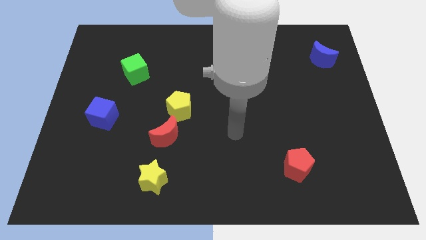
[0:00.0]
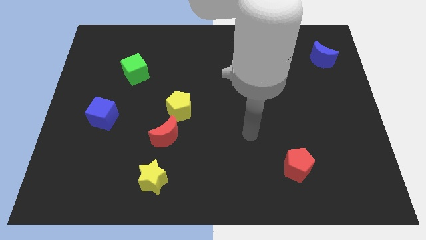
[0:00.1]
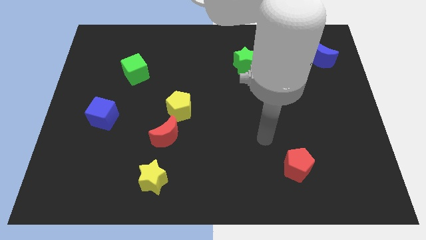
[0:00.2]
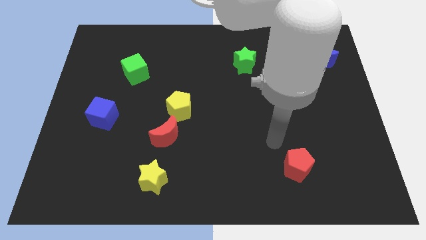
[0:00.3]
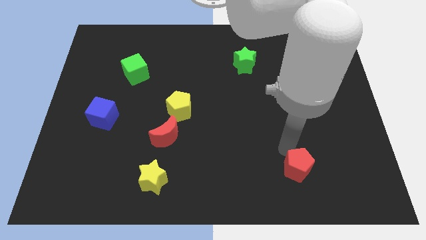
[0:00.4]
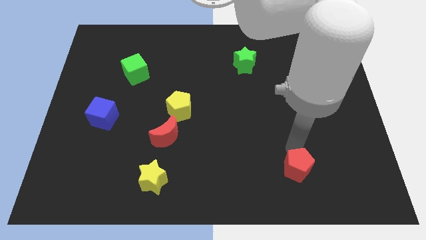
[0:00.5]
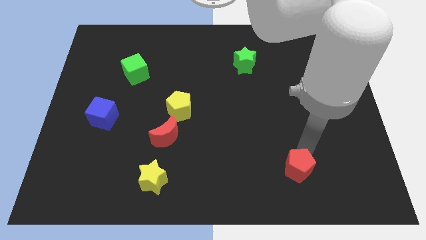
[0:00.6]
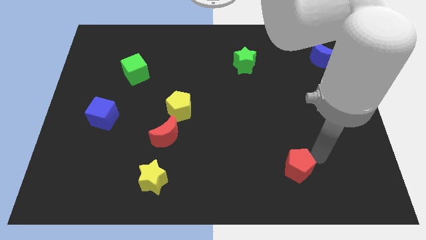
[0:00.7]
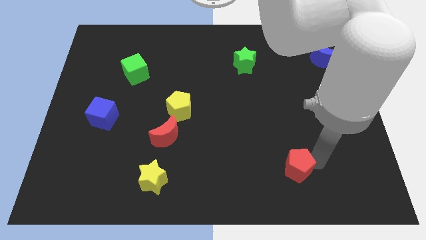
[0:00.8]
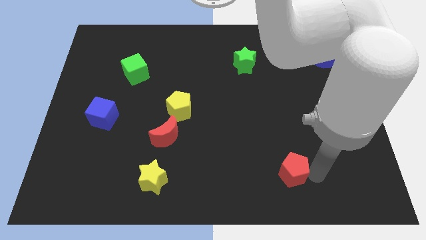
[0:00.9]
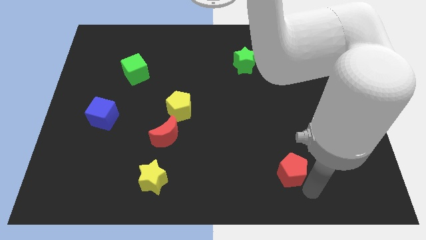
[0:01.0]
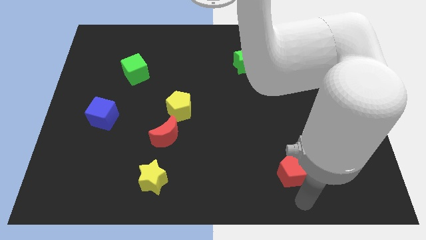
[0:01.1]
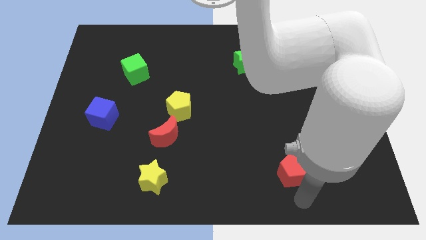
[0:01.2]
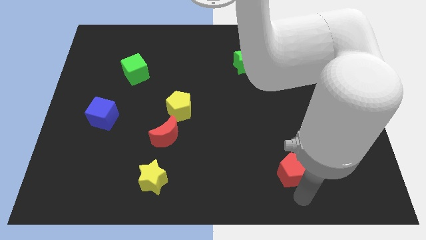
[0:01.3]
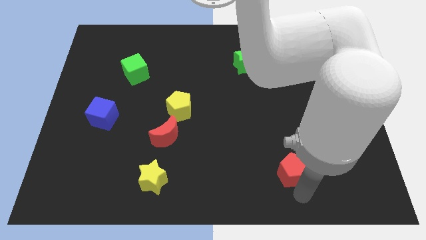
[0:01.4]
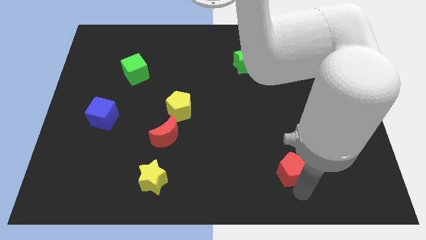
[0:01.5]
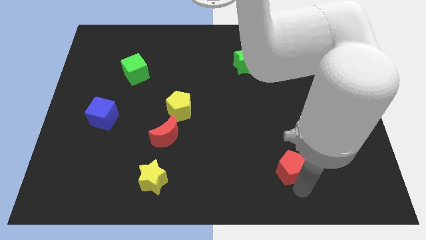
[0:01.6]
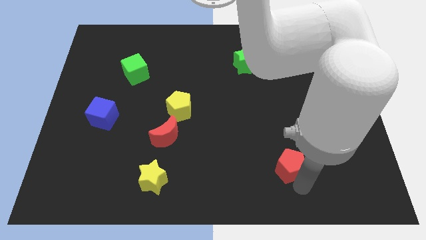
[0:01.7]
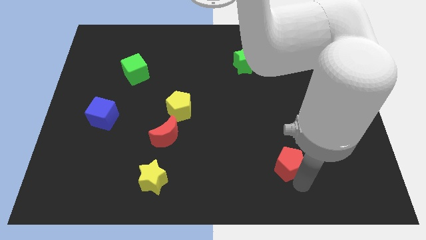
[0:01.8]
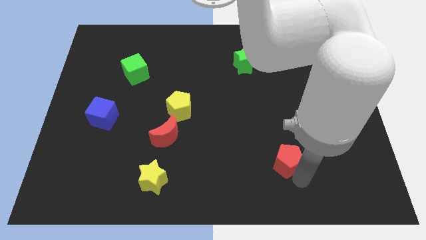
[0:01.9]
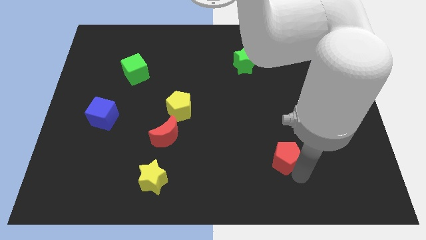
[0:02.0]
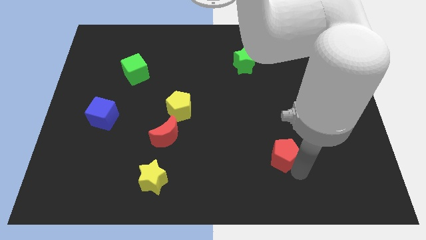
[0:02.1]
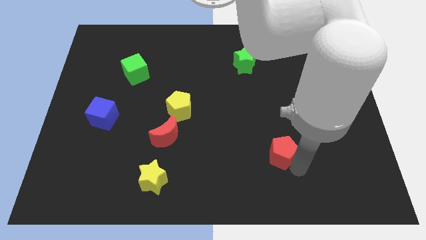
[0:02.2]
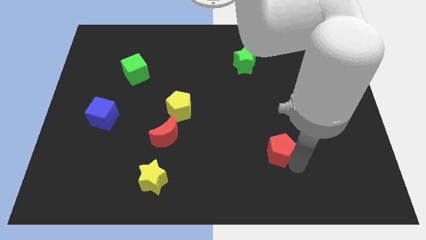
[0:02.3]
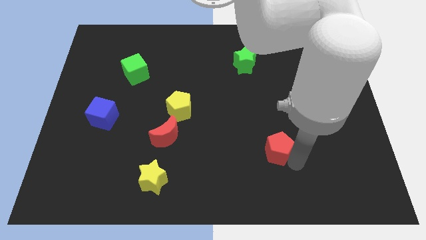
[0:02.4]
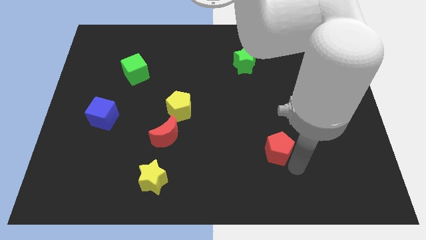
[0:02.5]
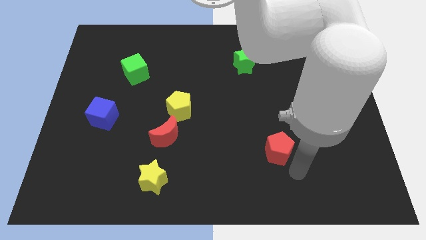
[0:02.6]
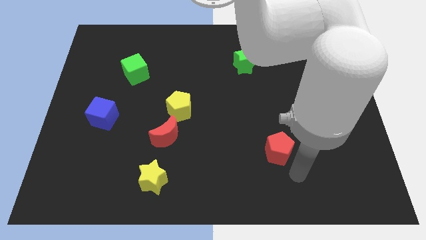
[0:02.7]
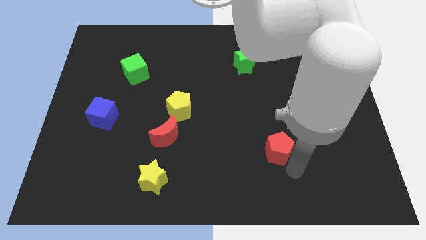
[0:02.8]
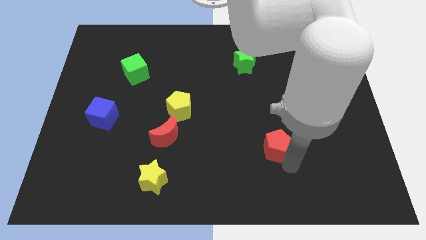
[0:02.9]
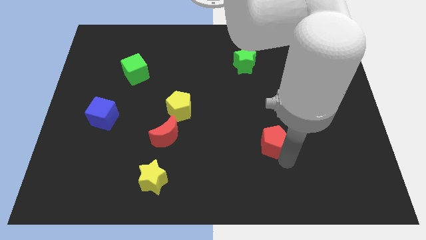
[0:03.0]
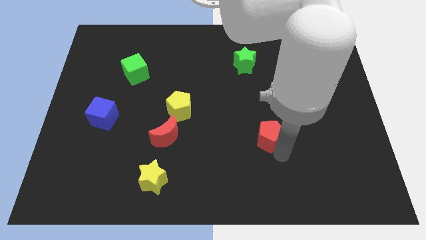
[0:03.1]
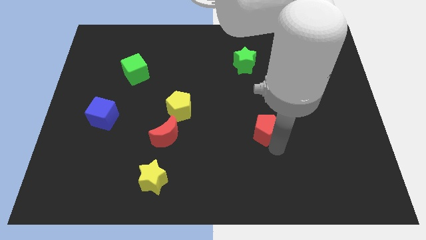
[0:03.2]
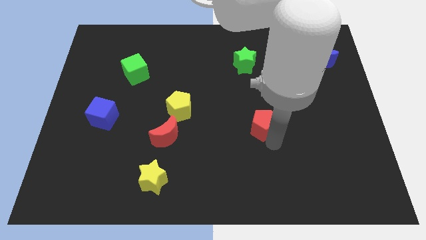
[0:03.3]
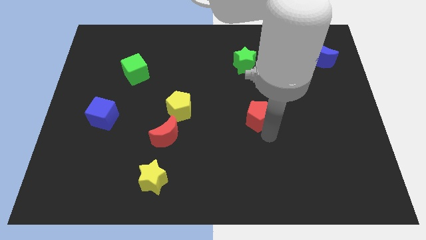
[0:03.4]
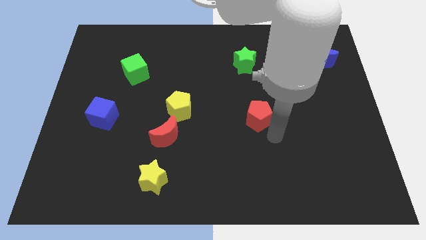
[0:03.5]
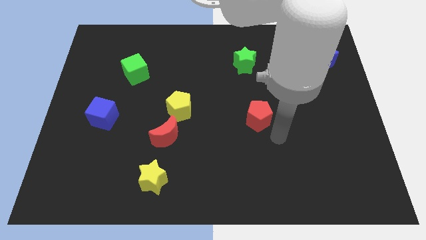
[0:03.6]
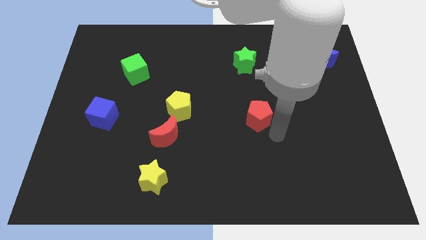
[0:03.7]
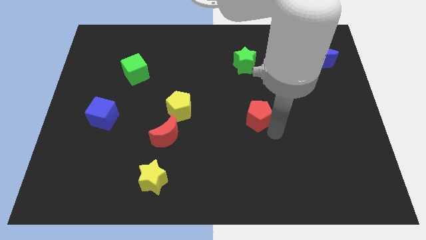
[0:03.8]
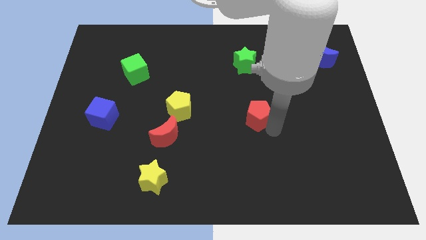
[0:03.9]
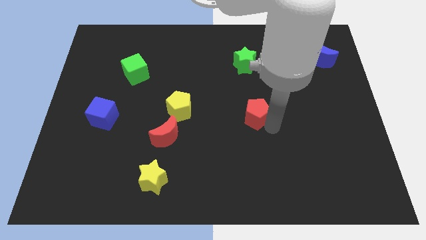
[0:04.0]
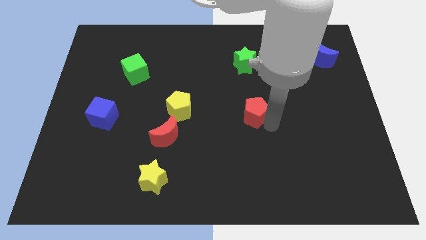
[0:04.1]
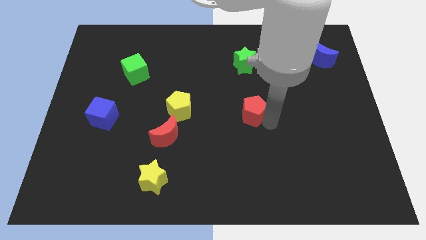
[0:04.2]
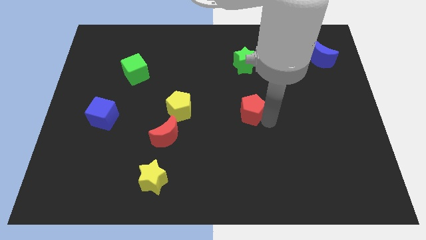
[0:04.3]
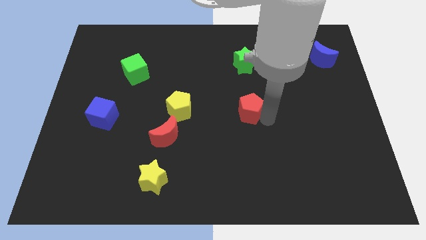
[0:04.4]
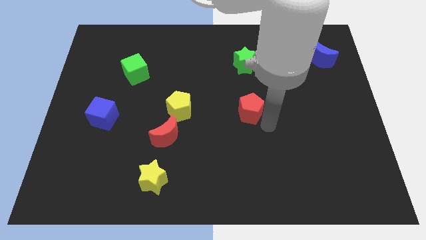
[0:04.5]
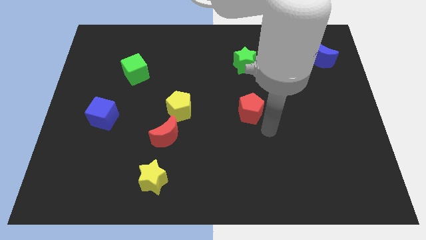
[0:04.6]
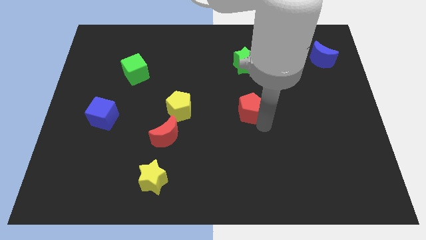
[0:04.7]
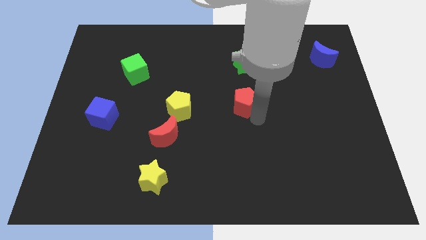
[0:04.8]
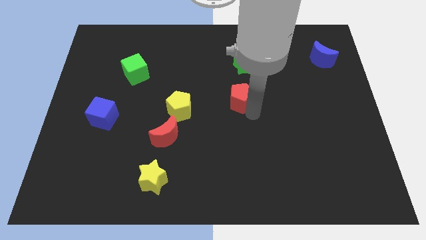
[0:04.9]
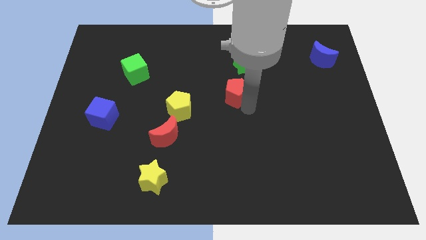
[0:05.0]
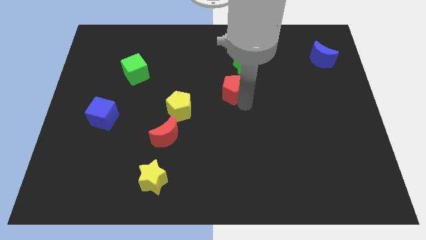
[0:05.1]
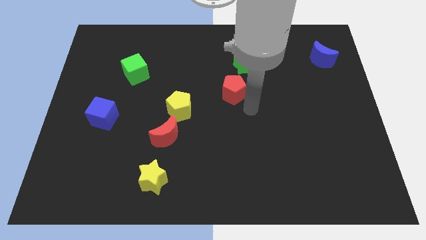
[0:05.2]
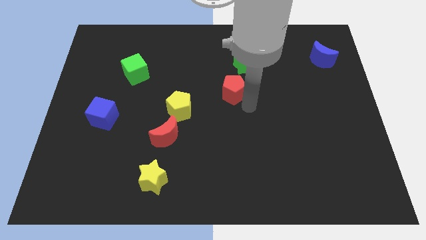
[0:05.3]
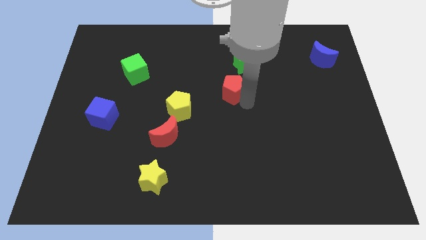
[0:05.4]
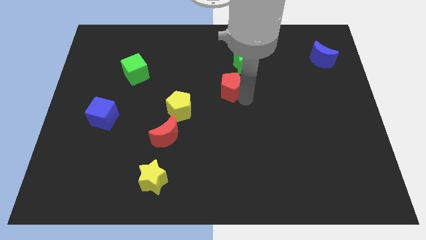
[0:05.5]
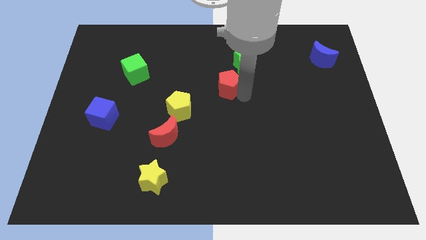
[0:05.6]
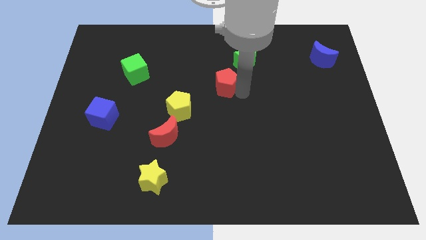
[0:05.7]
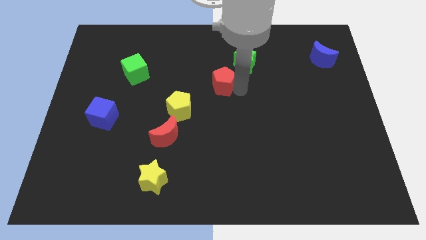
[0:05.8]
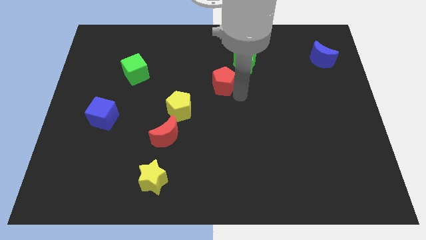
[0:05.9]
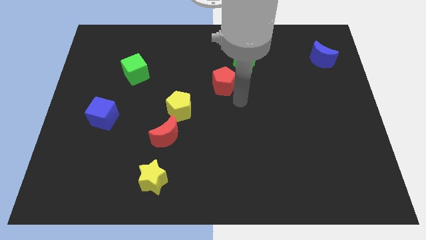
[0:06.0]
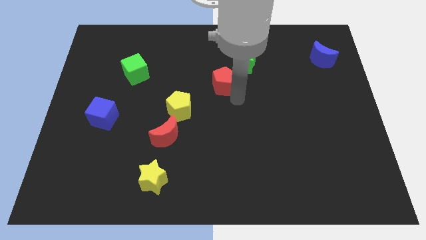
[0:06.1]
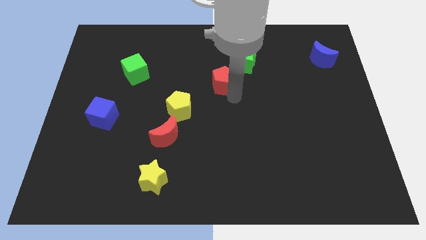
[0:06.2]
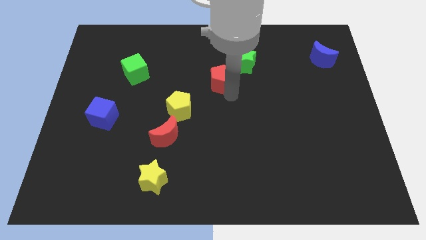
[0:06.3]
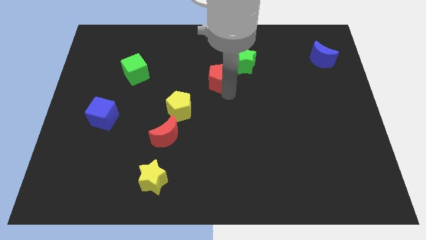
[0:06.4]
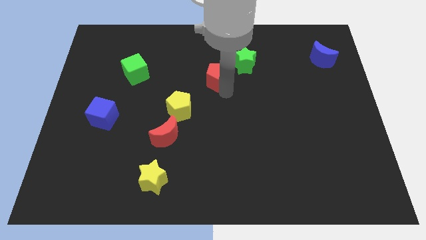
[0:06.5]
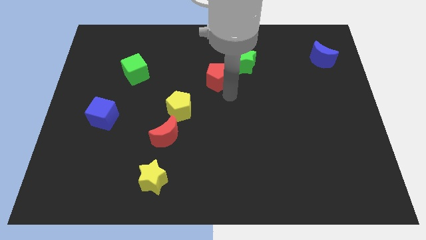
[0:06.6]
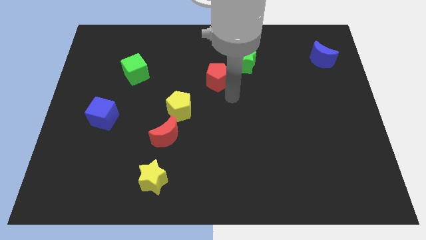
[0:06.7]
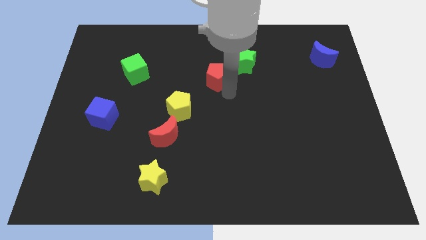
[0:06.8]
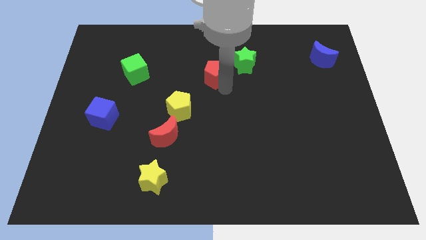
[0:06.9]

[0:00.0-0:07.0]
push the red pentagon to the left of the green star
